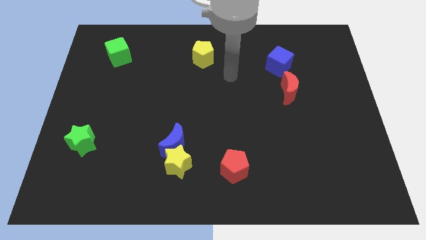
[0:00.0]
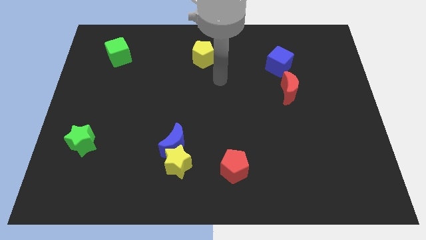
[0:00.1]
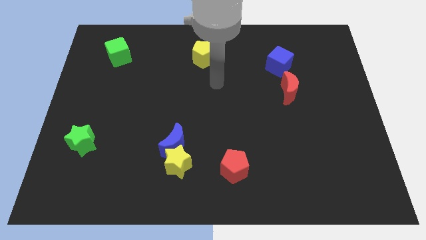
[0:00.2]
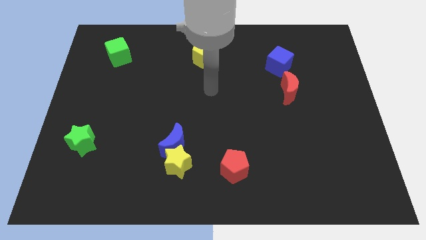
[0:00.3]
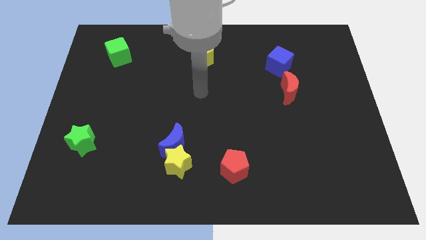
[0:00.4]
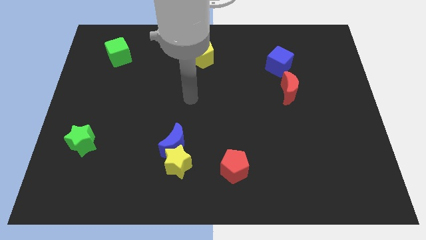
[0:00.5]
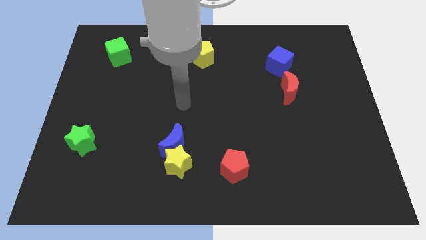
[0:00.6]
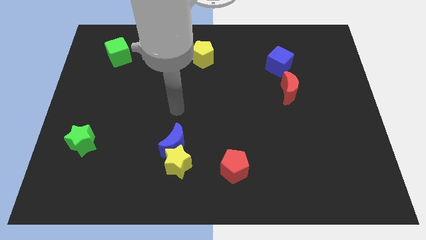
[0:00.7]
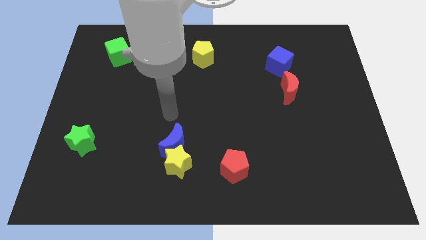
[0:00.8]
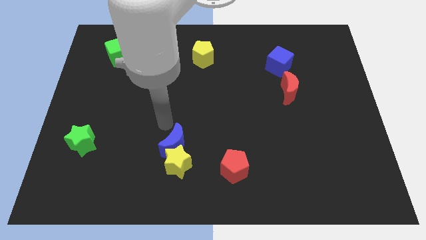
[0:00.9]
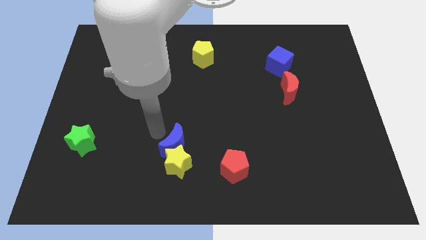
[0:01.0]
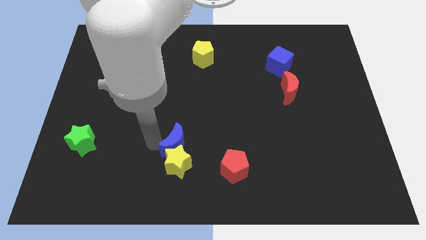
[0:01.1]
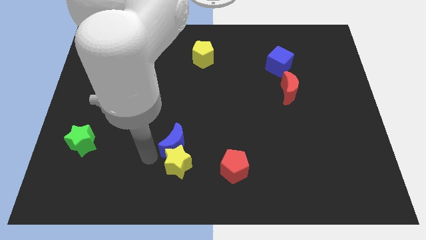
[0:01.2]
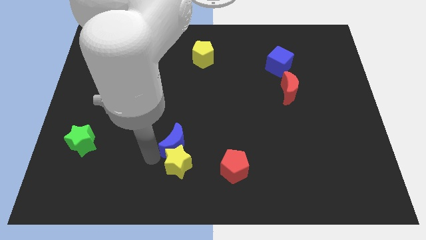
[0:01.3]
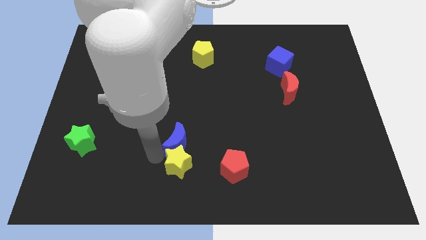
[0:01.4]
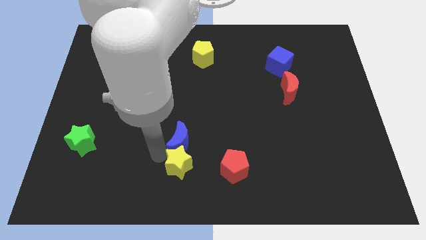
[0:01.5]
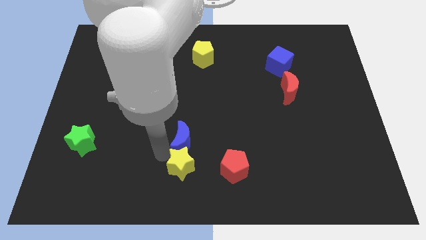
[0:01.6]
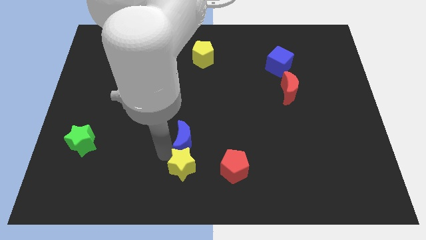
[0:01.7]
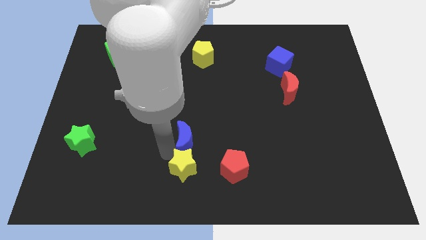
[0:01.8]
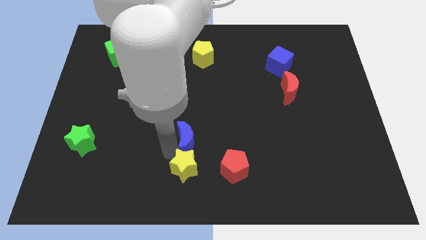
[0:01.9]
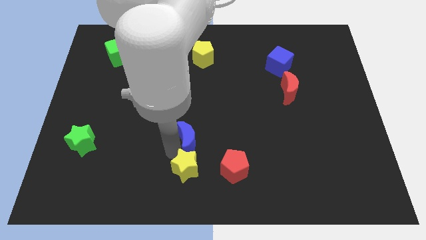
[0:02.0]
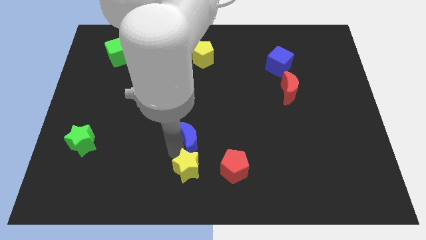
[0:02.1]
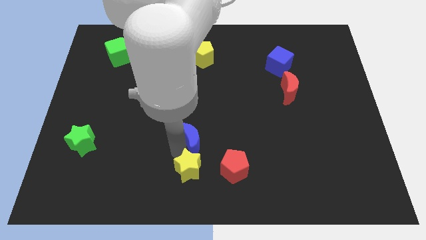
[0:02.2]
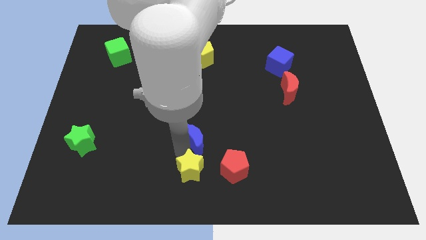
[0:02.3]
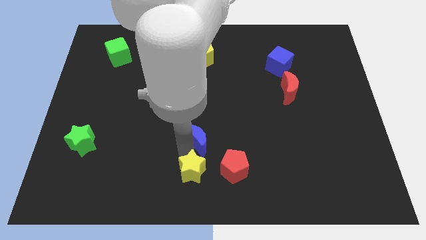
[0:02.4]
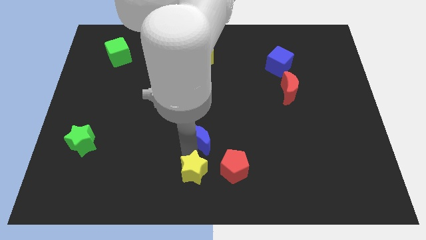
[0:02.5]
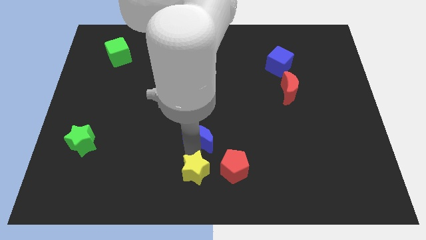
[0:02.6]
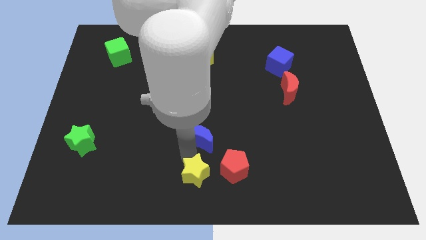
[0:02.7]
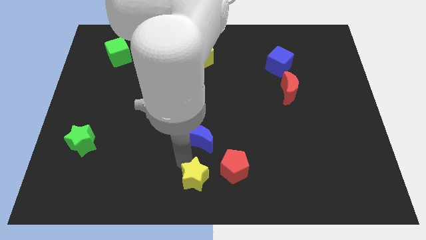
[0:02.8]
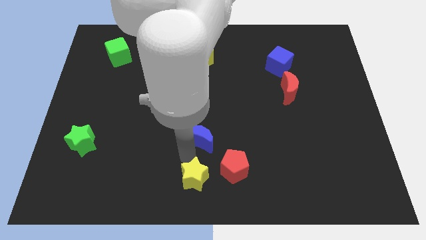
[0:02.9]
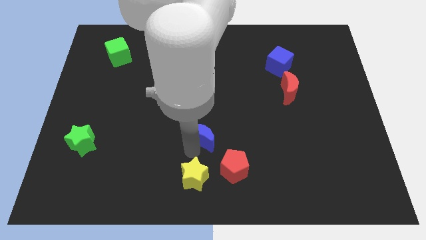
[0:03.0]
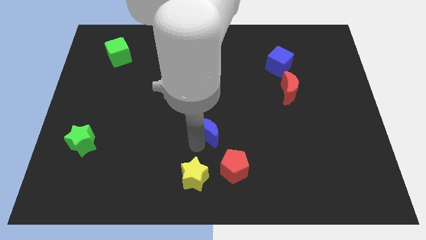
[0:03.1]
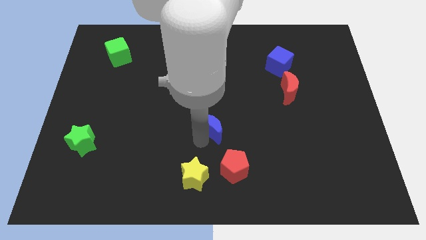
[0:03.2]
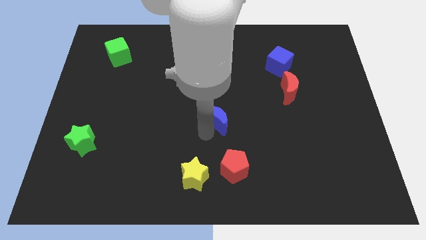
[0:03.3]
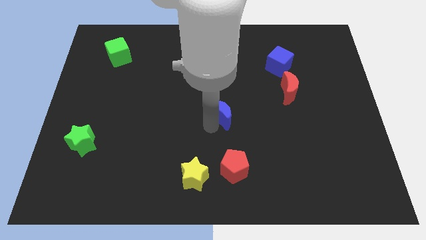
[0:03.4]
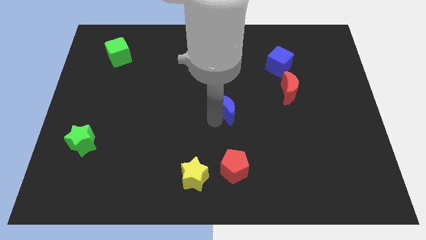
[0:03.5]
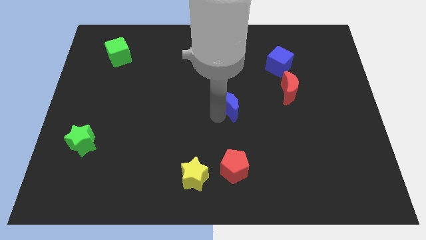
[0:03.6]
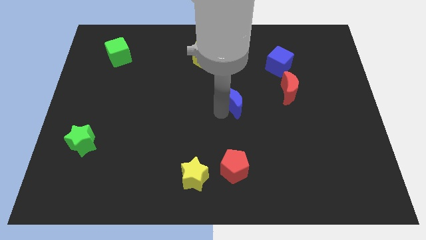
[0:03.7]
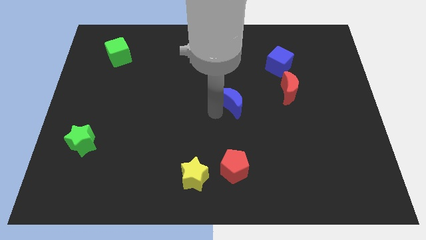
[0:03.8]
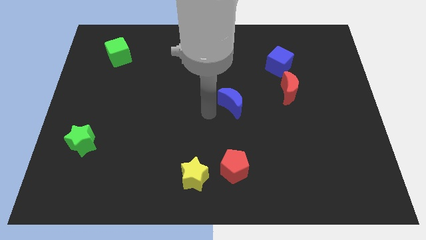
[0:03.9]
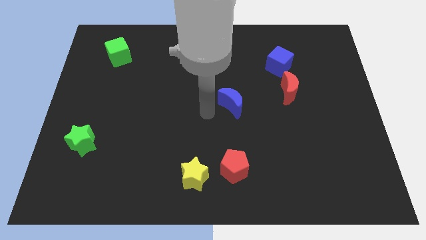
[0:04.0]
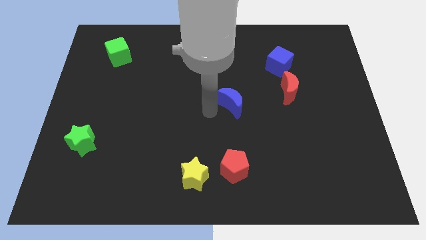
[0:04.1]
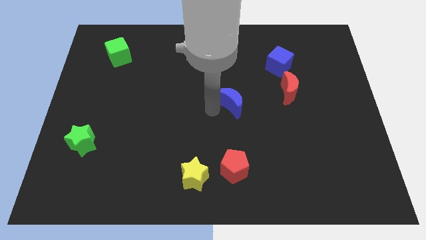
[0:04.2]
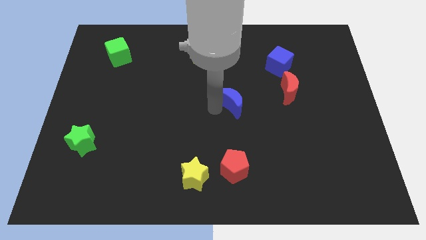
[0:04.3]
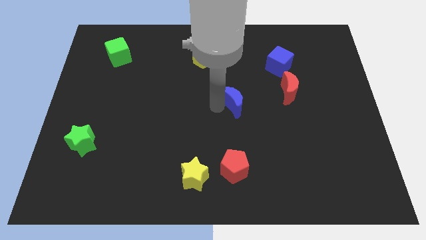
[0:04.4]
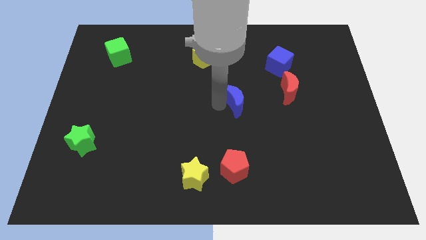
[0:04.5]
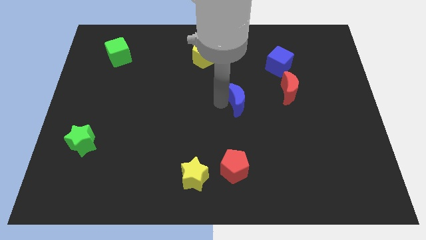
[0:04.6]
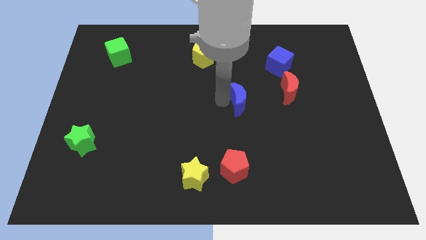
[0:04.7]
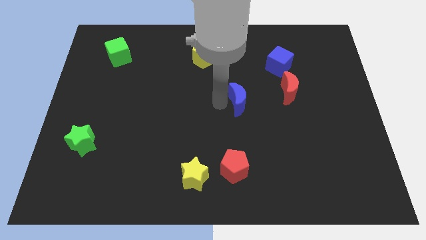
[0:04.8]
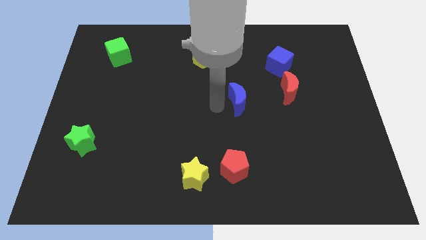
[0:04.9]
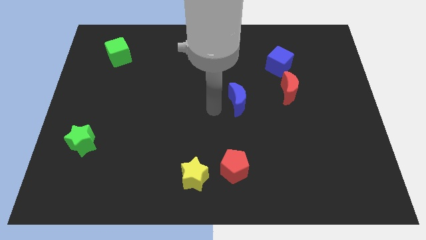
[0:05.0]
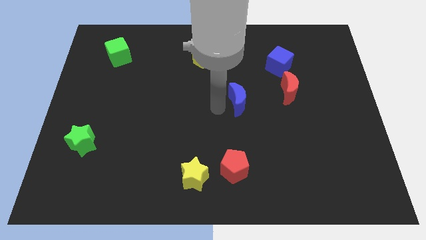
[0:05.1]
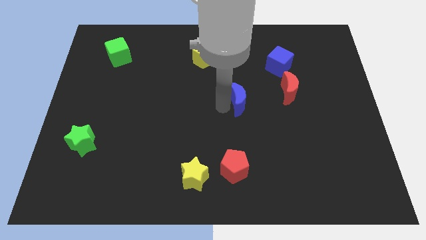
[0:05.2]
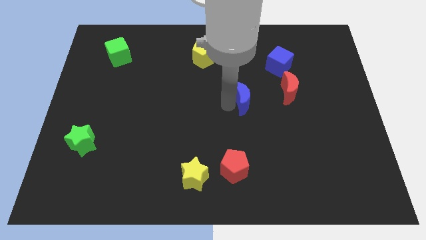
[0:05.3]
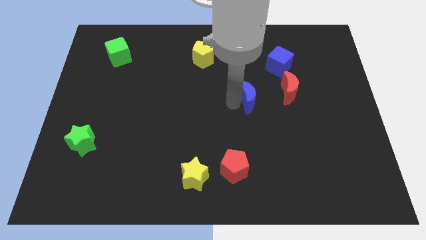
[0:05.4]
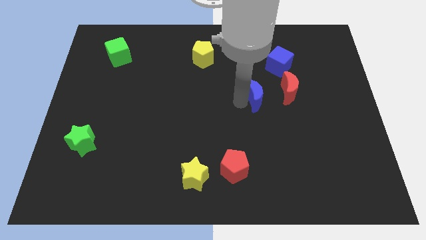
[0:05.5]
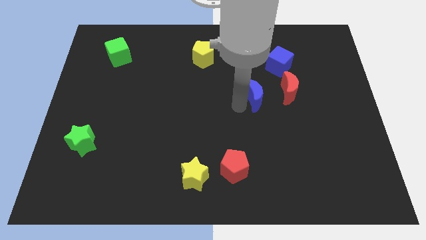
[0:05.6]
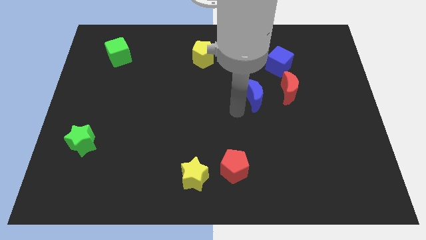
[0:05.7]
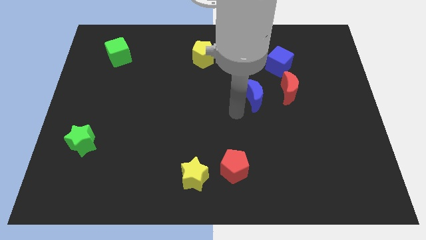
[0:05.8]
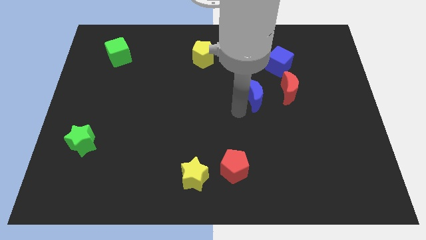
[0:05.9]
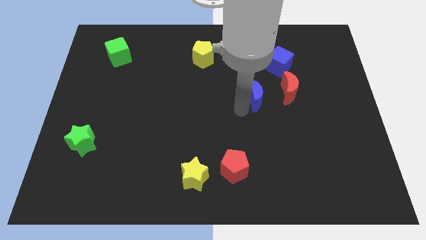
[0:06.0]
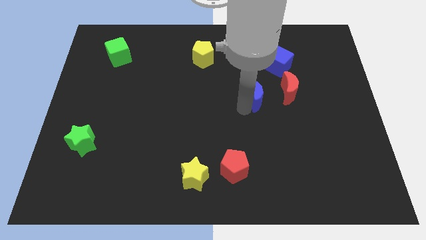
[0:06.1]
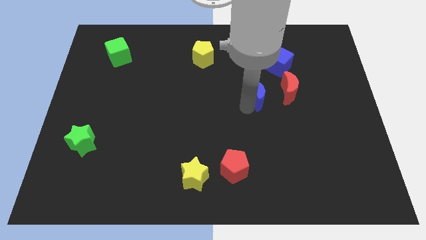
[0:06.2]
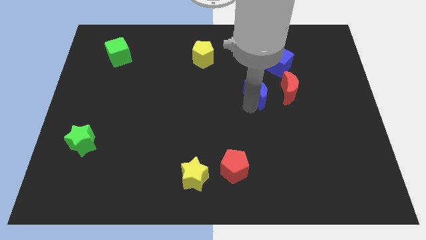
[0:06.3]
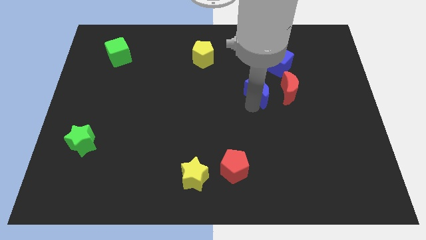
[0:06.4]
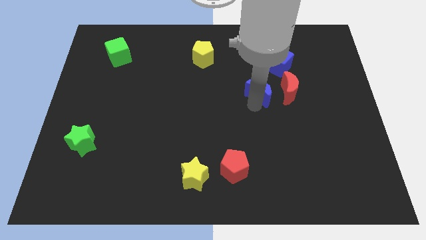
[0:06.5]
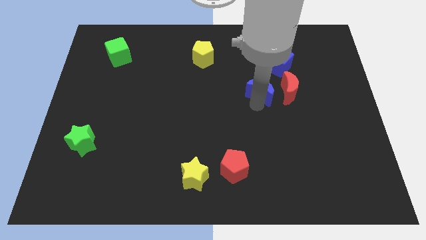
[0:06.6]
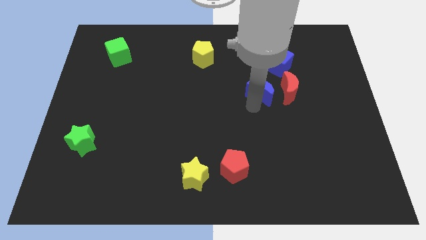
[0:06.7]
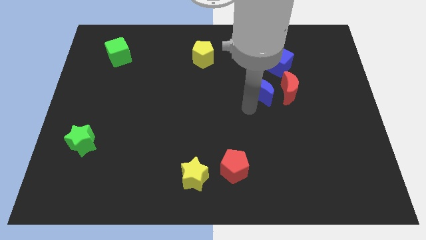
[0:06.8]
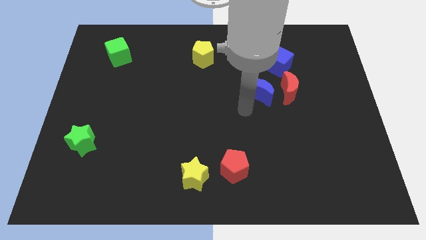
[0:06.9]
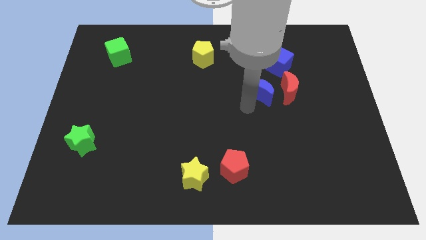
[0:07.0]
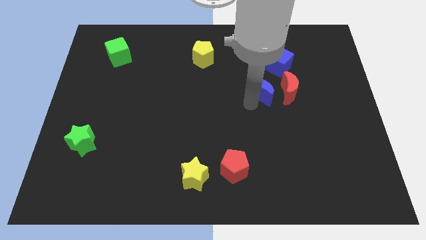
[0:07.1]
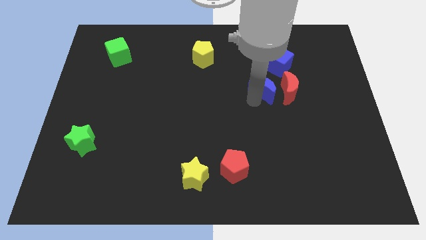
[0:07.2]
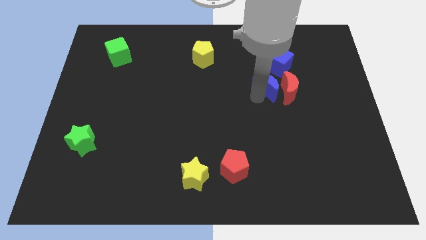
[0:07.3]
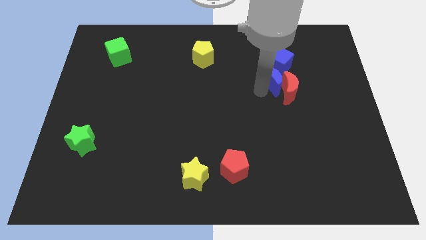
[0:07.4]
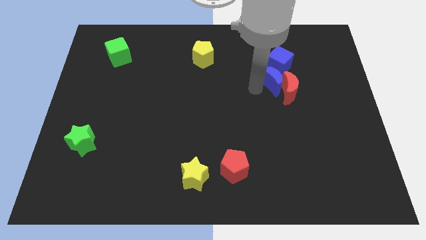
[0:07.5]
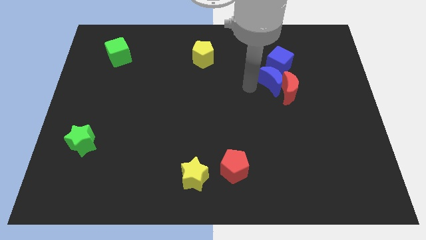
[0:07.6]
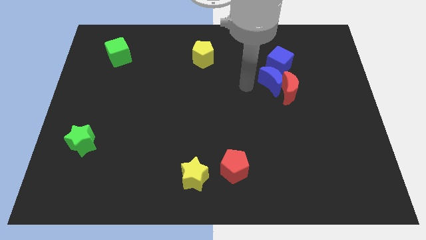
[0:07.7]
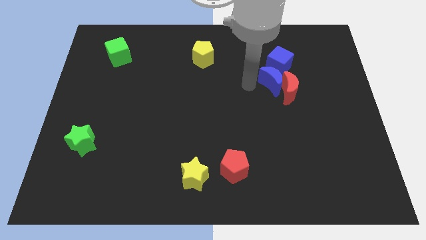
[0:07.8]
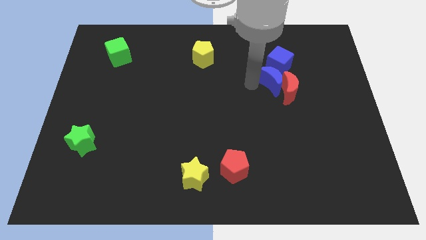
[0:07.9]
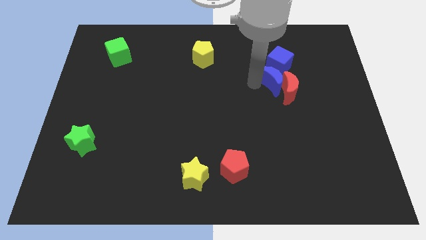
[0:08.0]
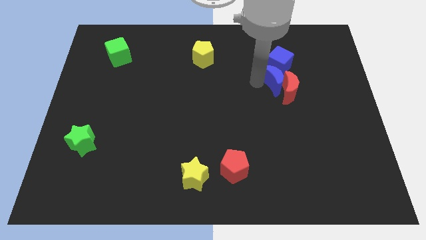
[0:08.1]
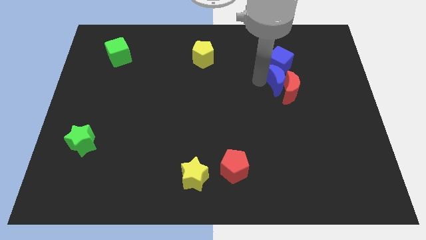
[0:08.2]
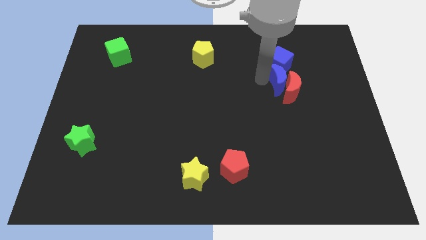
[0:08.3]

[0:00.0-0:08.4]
slide the blue moon to the bottom right side of the blue cube
